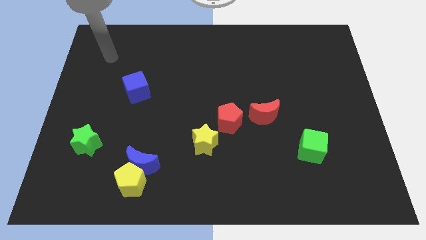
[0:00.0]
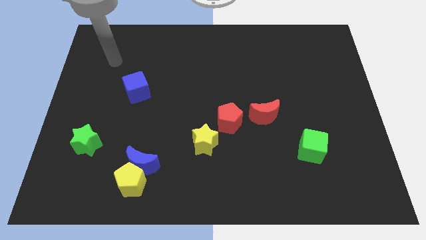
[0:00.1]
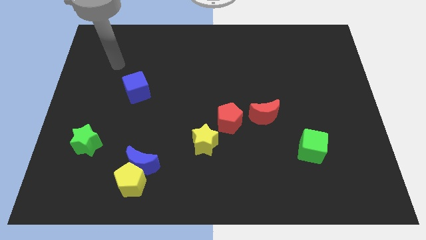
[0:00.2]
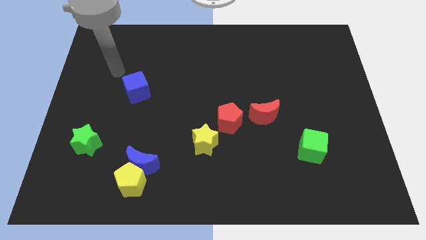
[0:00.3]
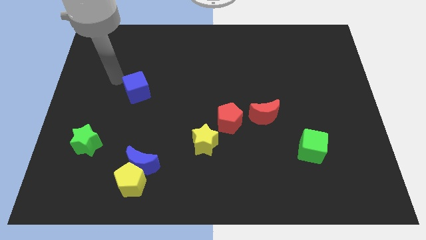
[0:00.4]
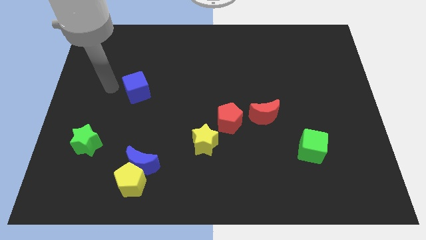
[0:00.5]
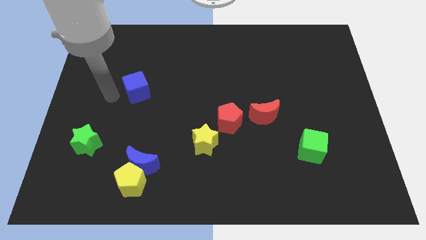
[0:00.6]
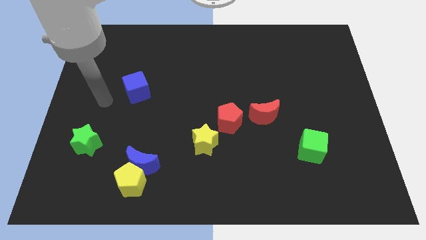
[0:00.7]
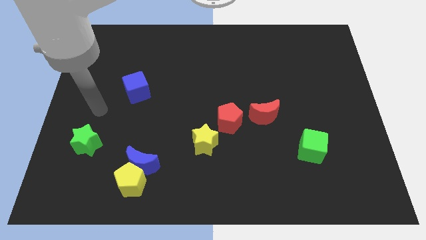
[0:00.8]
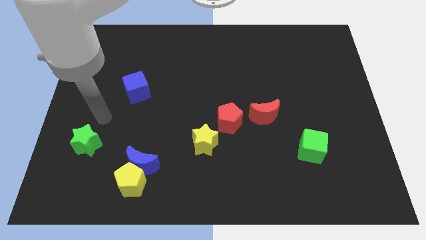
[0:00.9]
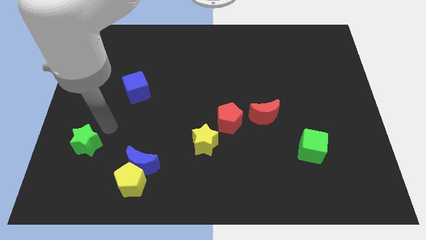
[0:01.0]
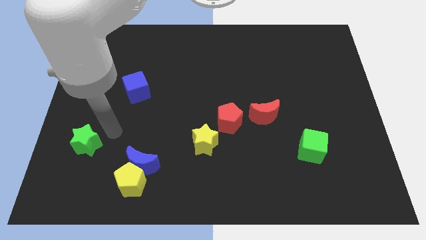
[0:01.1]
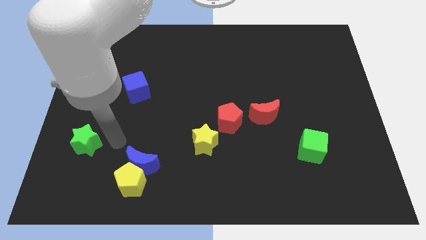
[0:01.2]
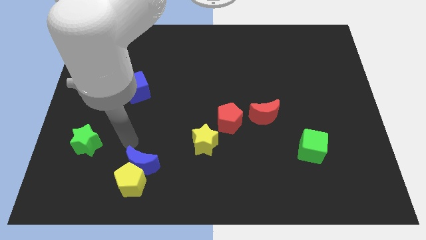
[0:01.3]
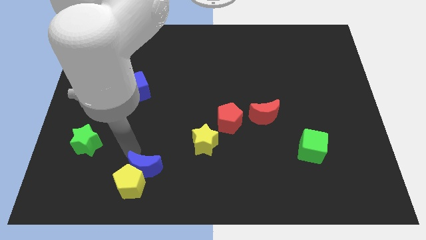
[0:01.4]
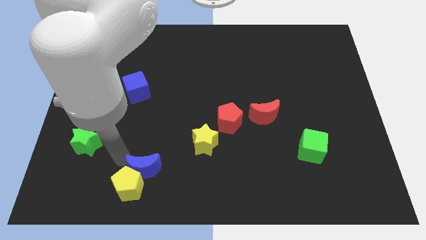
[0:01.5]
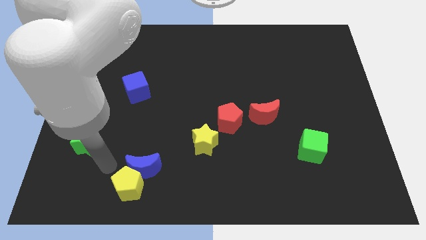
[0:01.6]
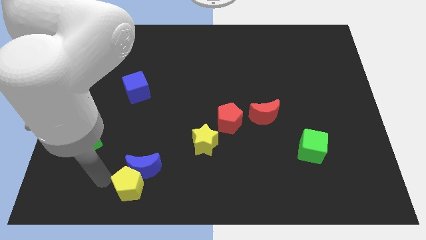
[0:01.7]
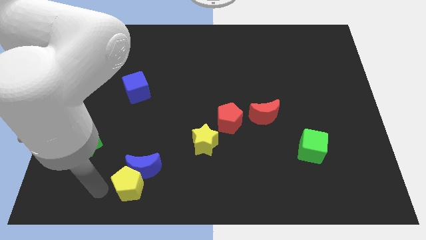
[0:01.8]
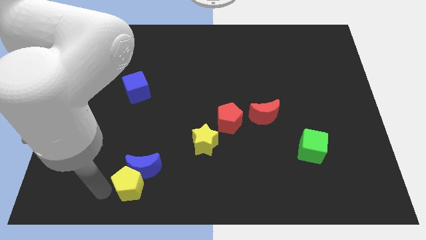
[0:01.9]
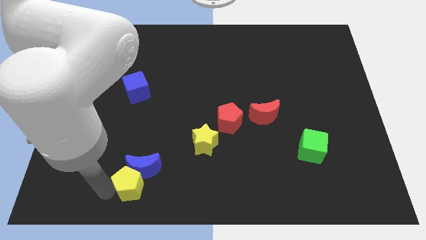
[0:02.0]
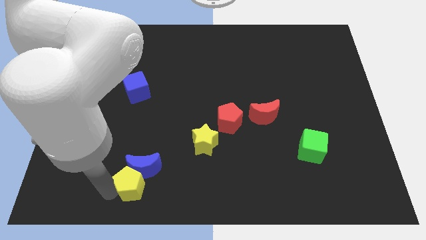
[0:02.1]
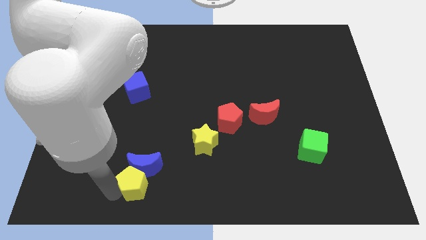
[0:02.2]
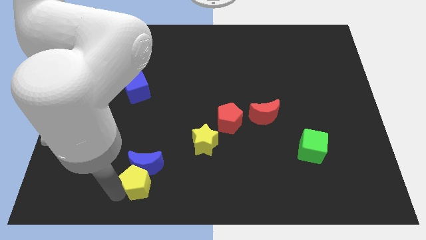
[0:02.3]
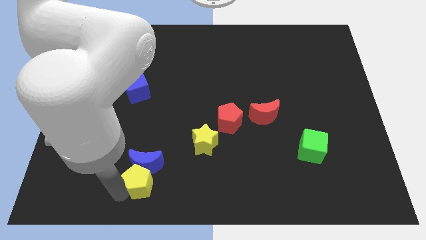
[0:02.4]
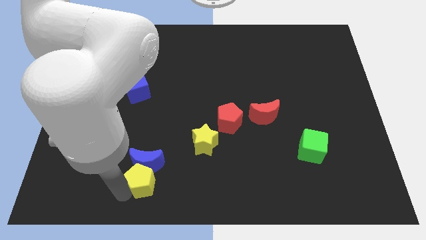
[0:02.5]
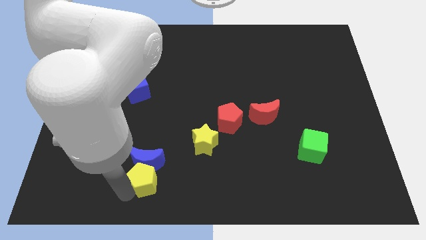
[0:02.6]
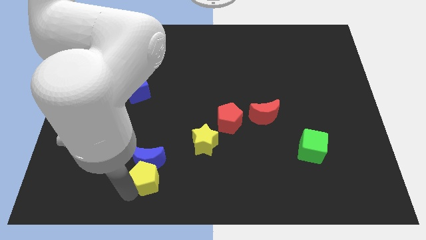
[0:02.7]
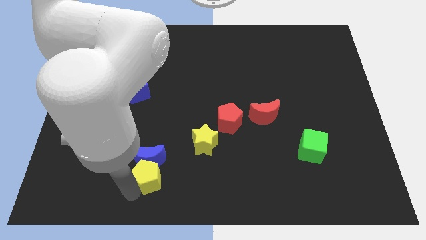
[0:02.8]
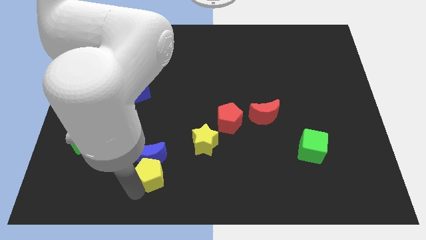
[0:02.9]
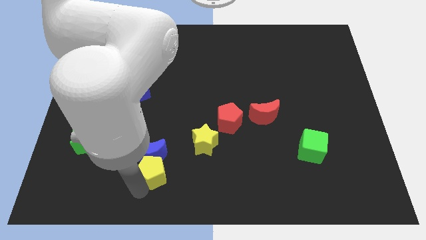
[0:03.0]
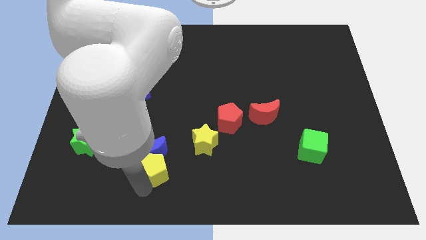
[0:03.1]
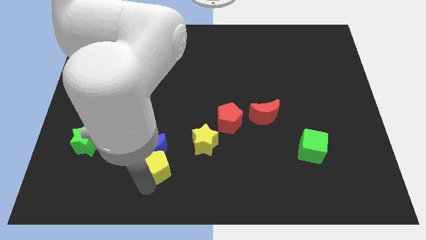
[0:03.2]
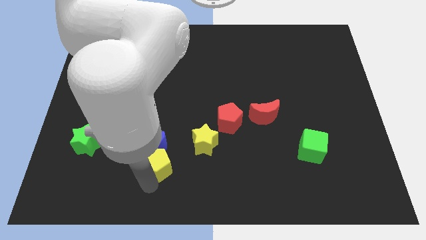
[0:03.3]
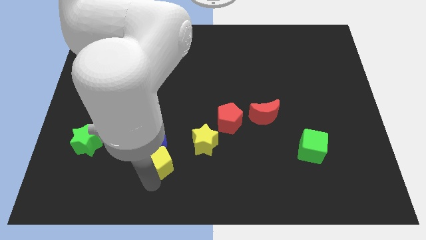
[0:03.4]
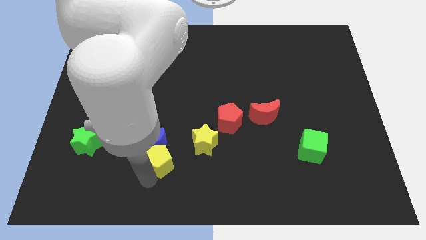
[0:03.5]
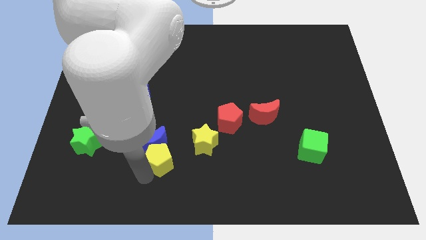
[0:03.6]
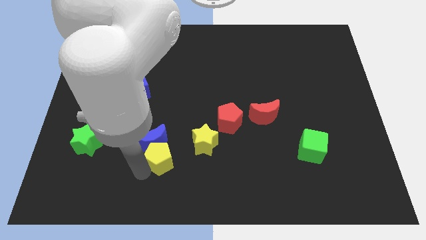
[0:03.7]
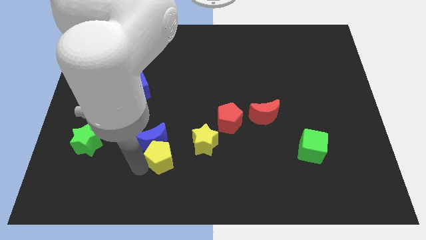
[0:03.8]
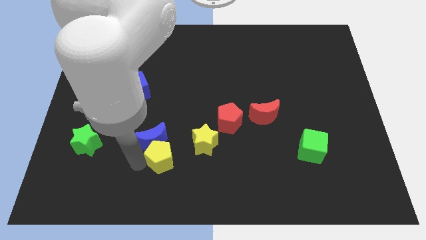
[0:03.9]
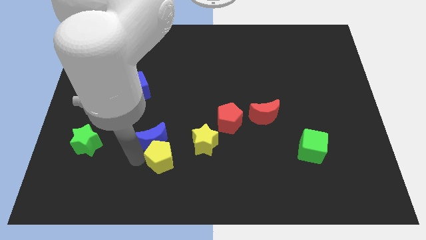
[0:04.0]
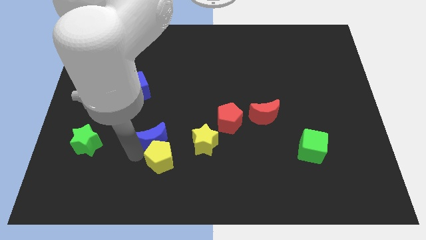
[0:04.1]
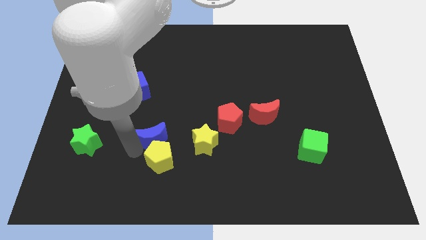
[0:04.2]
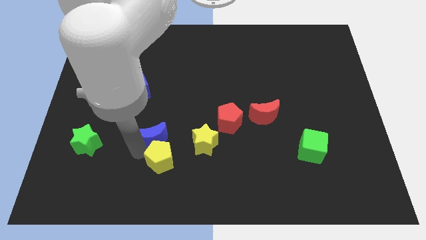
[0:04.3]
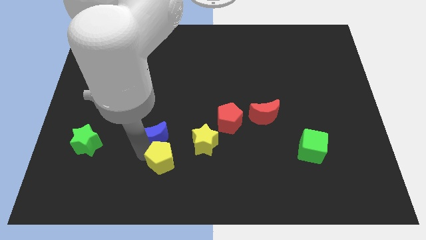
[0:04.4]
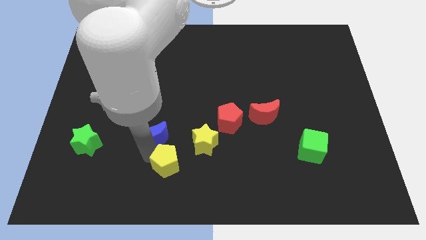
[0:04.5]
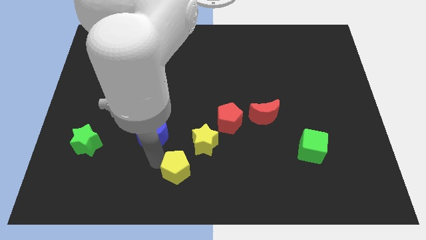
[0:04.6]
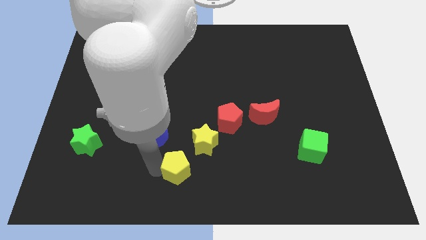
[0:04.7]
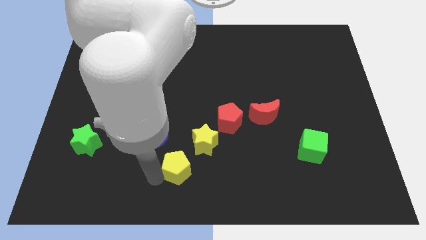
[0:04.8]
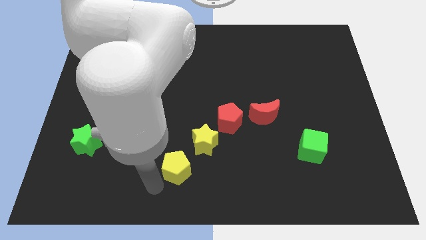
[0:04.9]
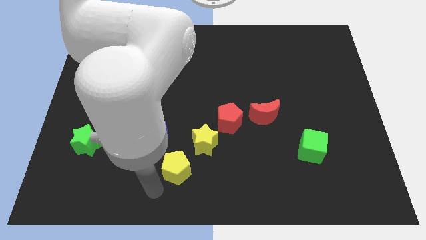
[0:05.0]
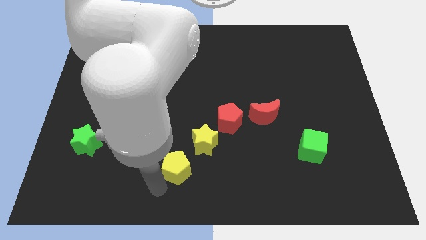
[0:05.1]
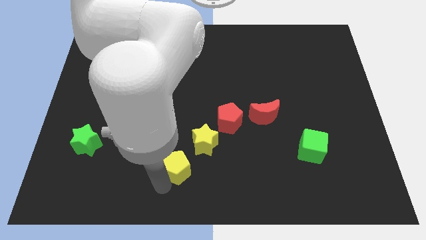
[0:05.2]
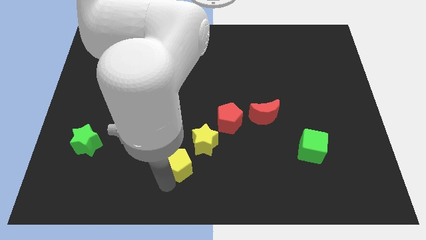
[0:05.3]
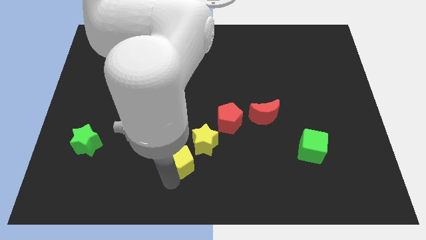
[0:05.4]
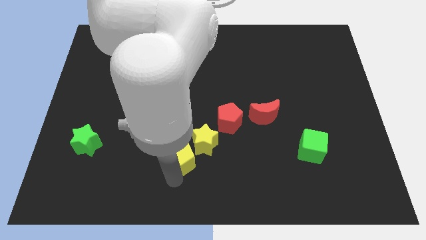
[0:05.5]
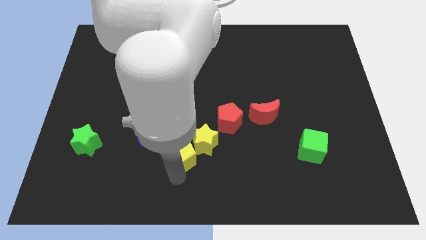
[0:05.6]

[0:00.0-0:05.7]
slide the yellow pentagon next to the yellow star

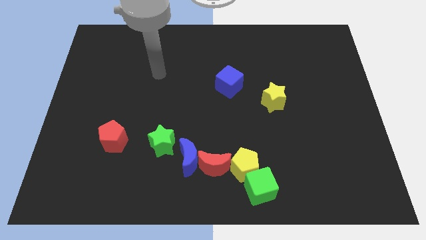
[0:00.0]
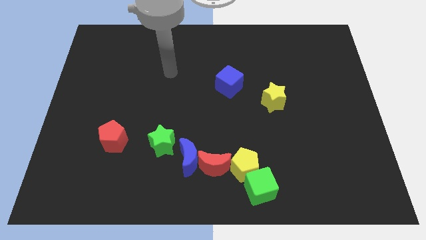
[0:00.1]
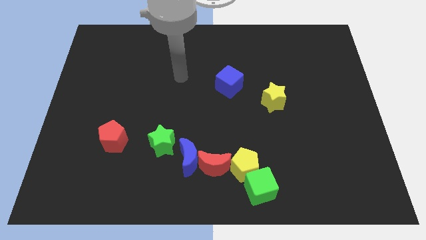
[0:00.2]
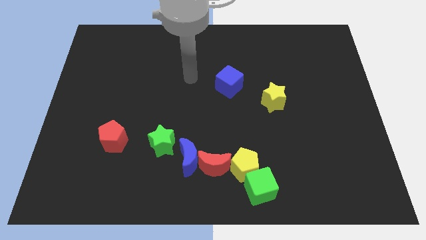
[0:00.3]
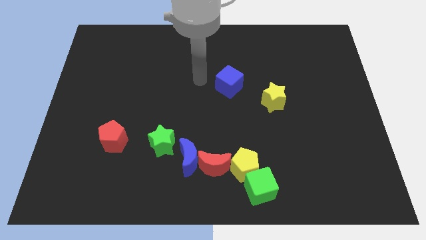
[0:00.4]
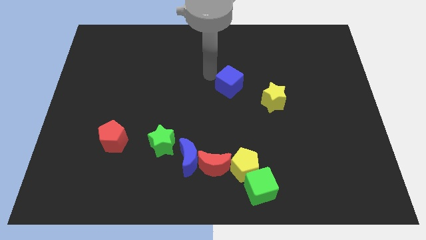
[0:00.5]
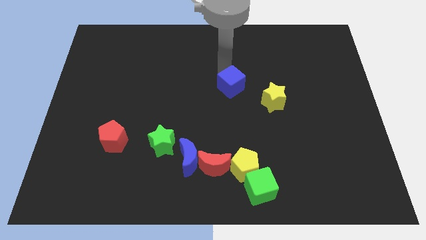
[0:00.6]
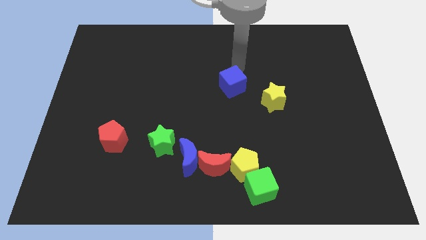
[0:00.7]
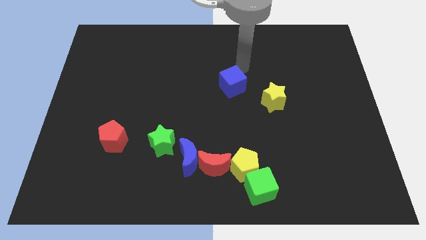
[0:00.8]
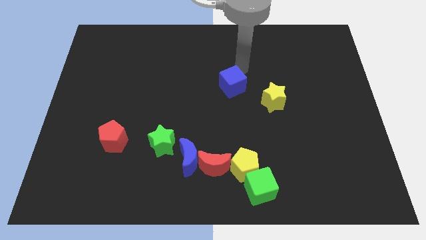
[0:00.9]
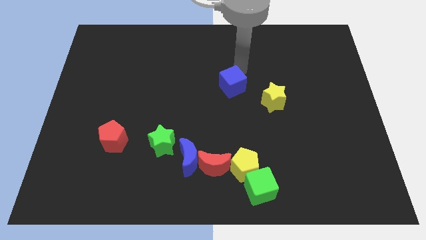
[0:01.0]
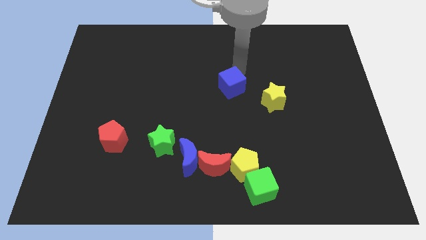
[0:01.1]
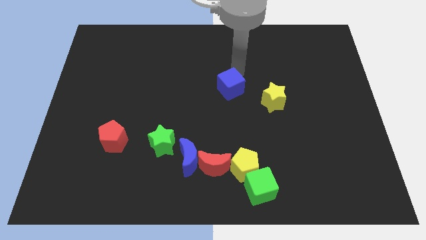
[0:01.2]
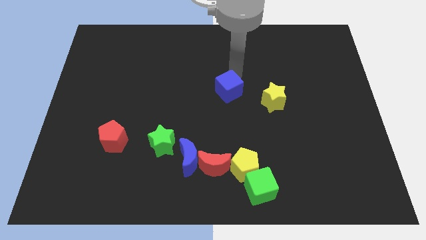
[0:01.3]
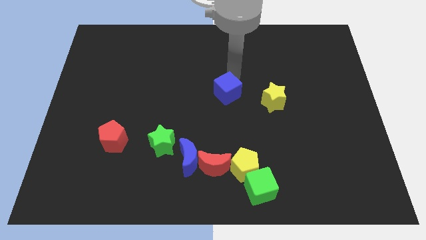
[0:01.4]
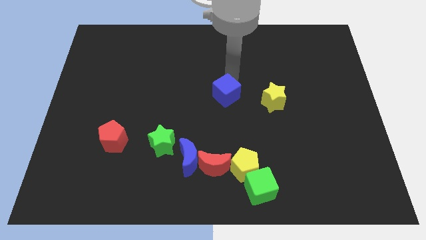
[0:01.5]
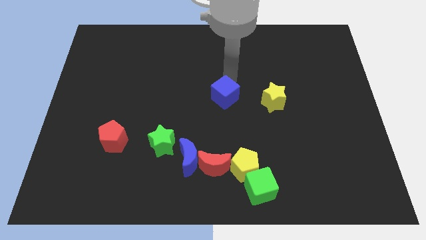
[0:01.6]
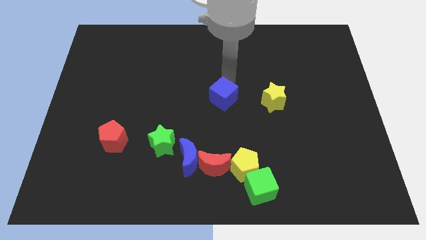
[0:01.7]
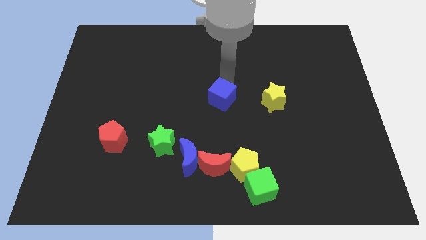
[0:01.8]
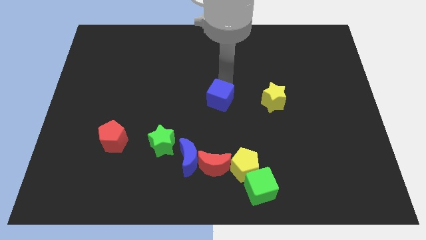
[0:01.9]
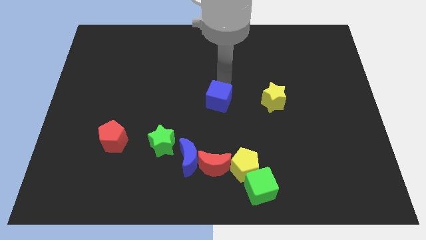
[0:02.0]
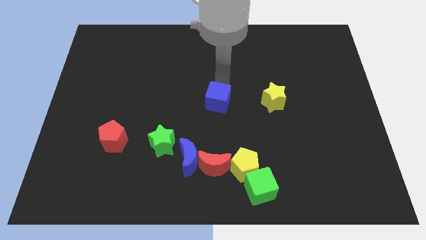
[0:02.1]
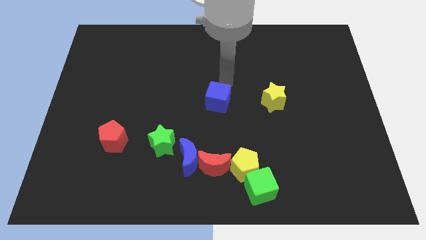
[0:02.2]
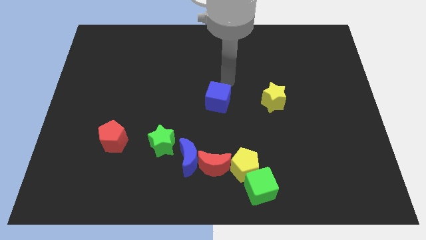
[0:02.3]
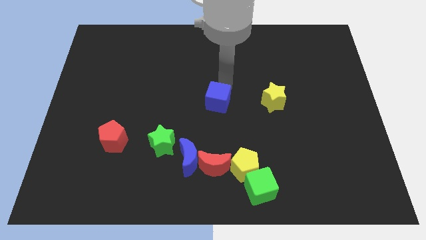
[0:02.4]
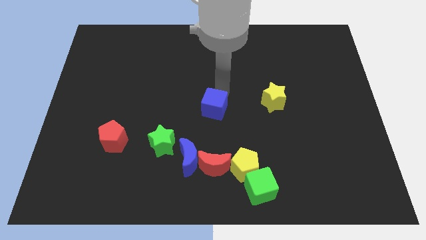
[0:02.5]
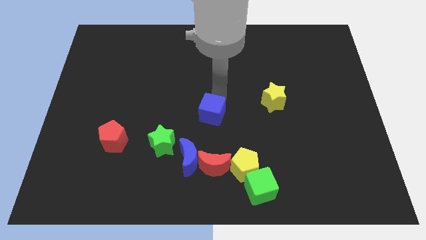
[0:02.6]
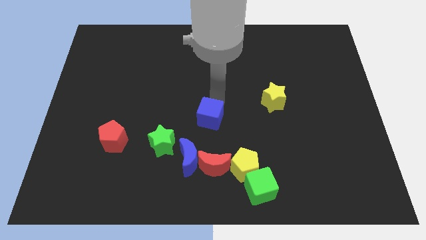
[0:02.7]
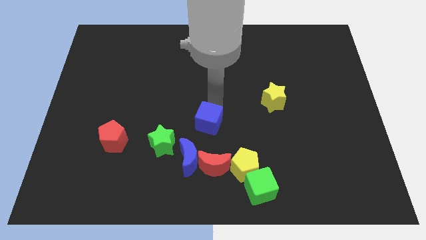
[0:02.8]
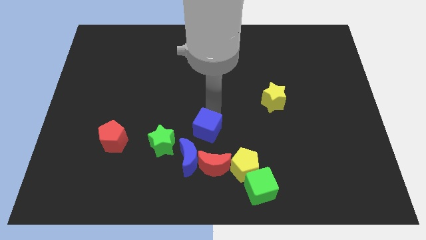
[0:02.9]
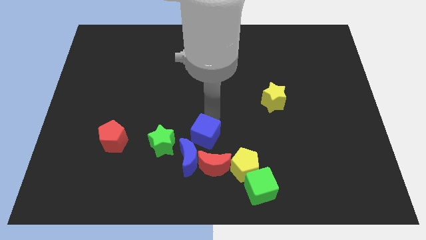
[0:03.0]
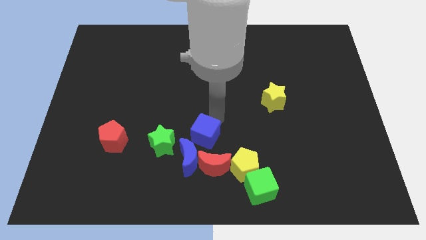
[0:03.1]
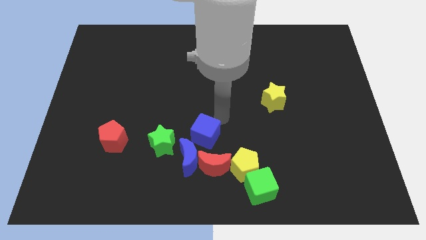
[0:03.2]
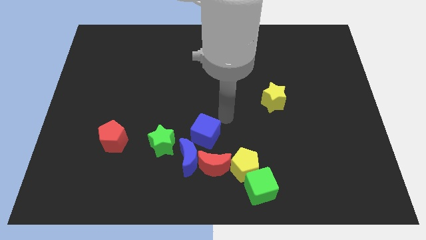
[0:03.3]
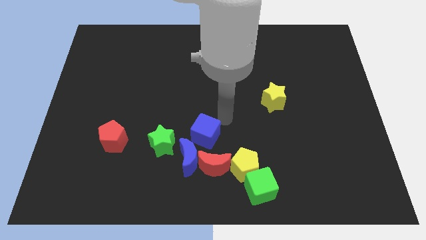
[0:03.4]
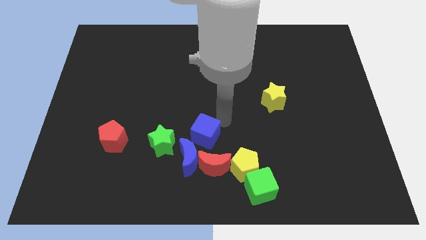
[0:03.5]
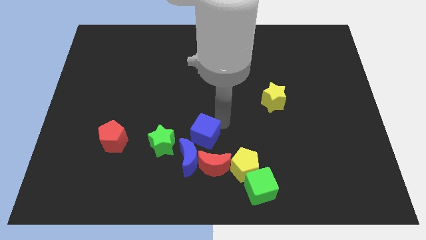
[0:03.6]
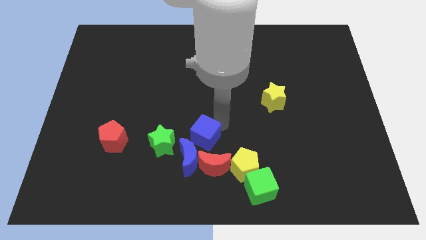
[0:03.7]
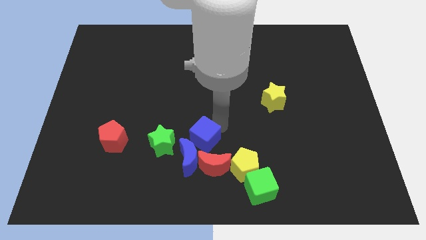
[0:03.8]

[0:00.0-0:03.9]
put the blue cube next to the blue moon
